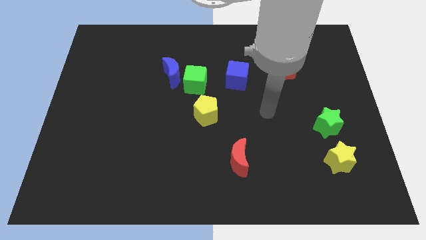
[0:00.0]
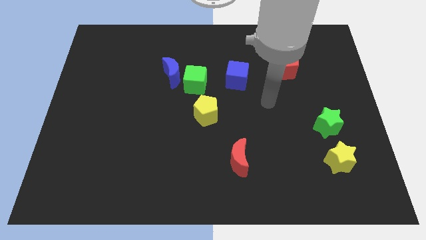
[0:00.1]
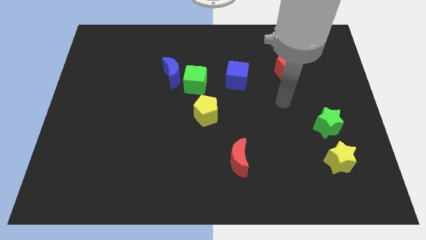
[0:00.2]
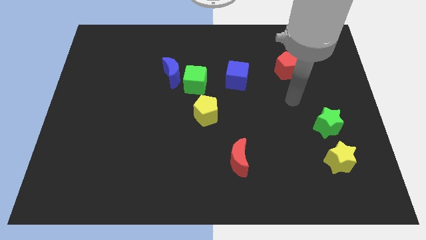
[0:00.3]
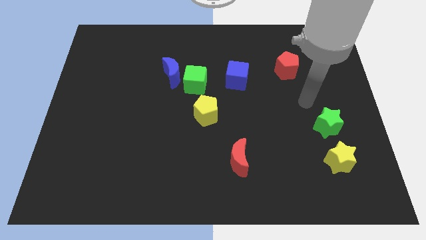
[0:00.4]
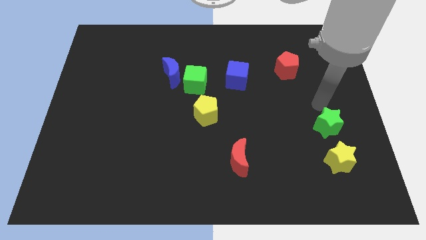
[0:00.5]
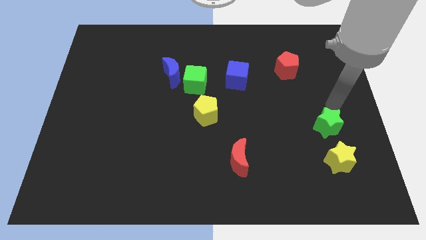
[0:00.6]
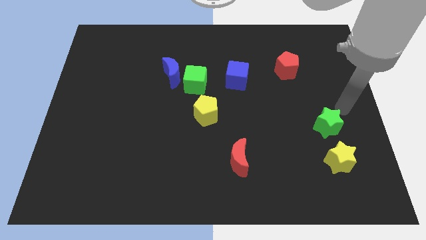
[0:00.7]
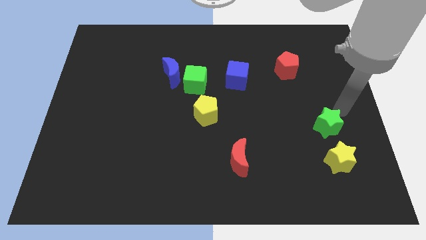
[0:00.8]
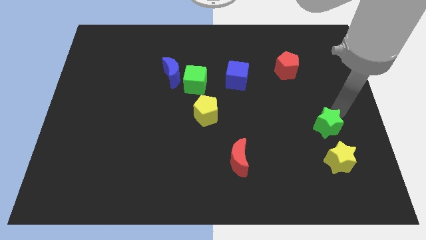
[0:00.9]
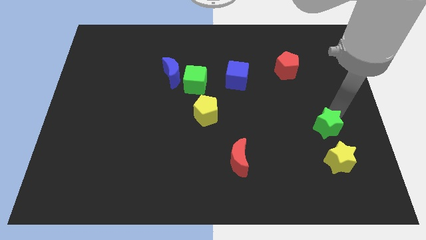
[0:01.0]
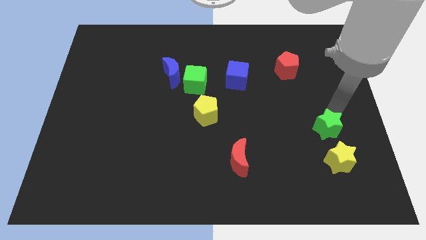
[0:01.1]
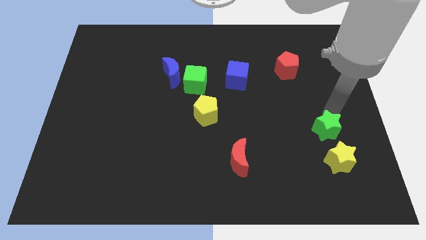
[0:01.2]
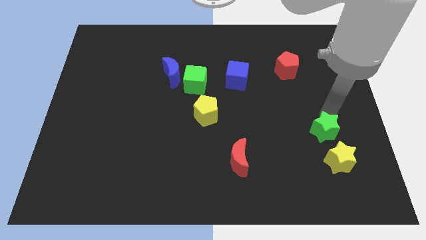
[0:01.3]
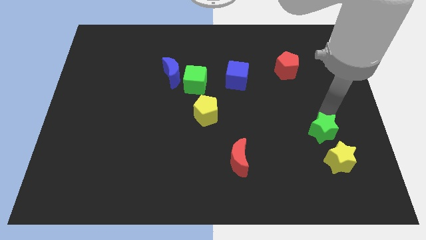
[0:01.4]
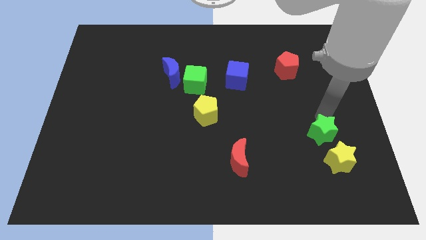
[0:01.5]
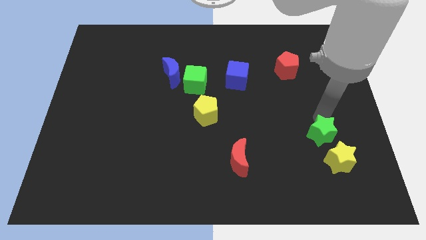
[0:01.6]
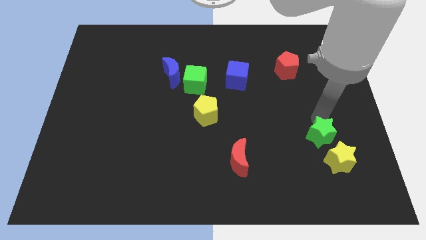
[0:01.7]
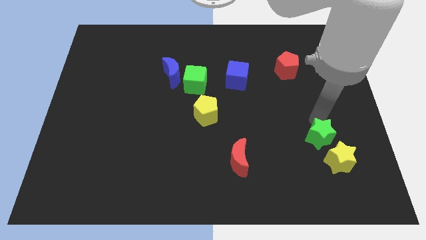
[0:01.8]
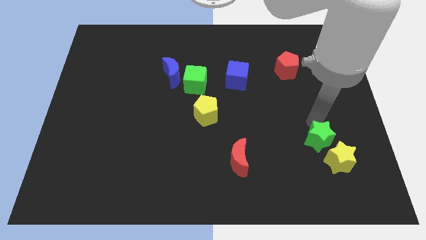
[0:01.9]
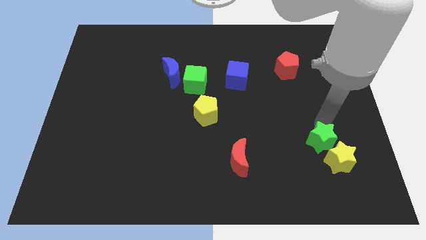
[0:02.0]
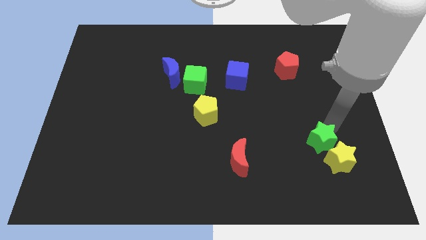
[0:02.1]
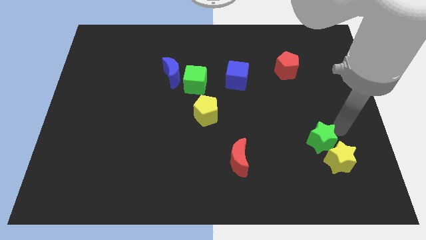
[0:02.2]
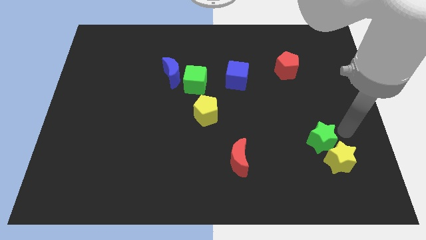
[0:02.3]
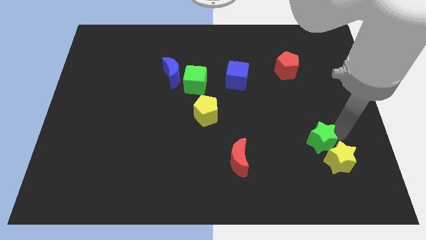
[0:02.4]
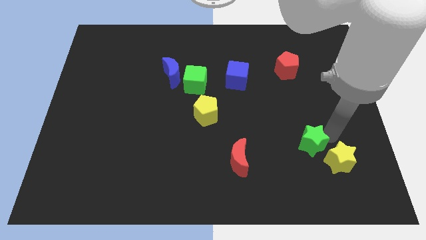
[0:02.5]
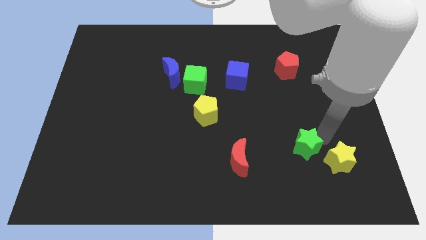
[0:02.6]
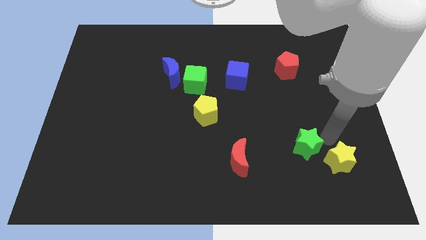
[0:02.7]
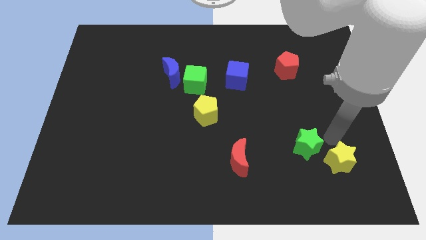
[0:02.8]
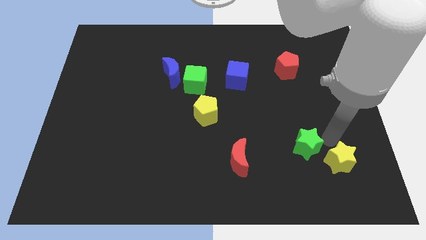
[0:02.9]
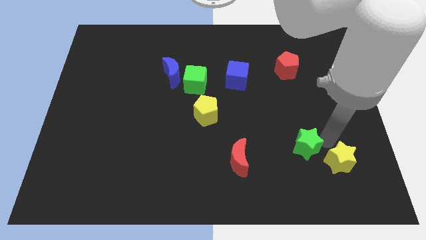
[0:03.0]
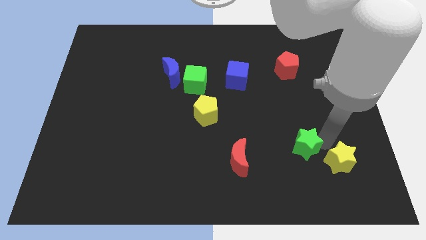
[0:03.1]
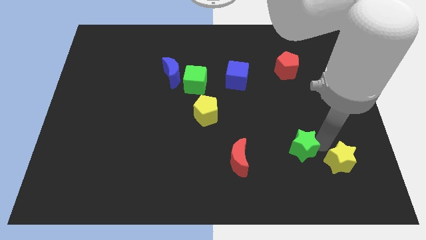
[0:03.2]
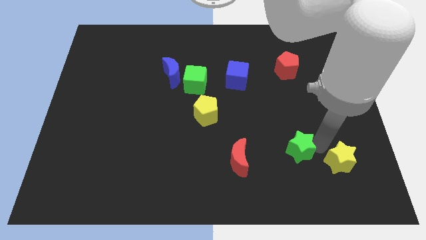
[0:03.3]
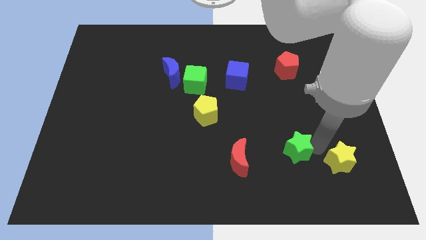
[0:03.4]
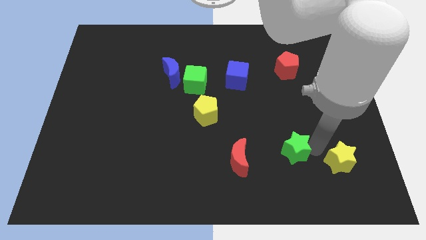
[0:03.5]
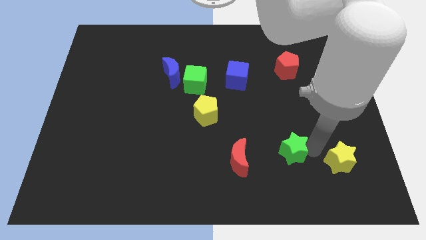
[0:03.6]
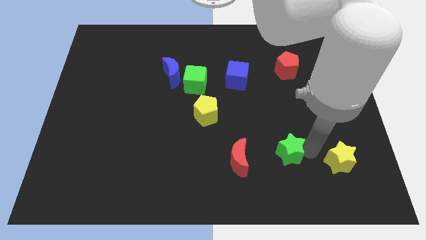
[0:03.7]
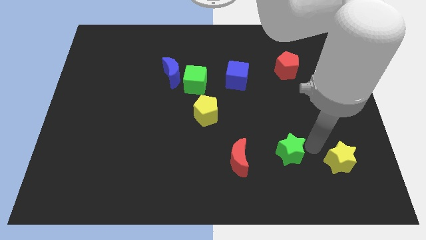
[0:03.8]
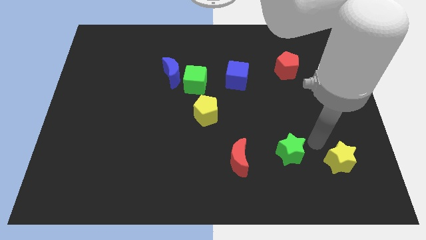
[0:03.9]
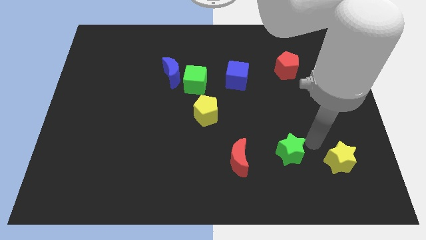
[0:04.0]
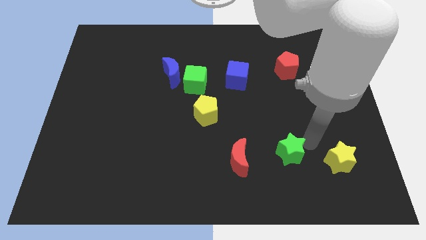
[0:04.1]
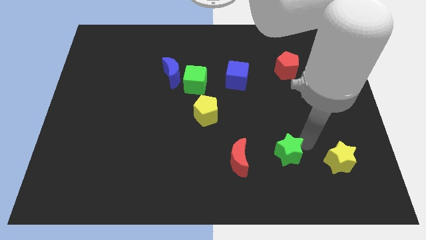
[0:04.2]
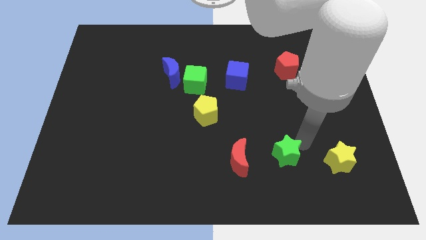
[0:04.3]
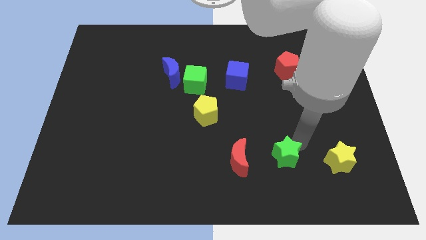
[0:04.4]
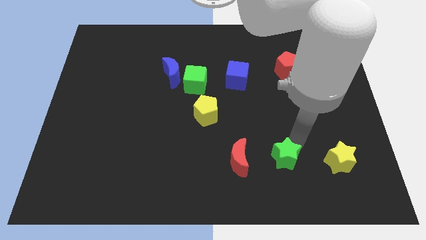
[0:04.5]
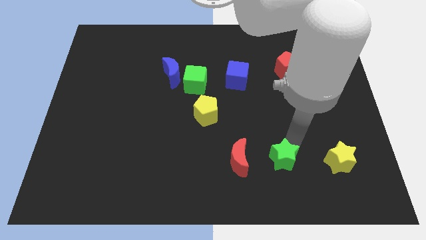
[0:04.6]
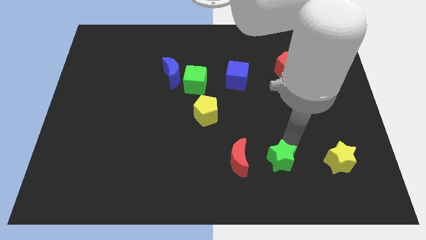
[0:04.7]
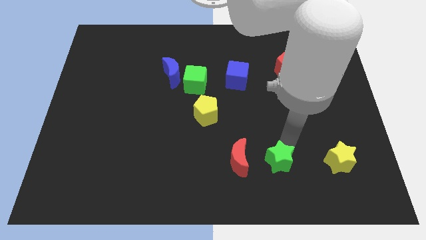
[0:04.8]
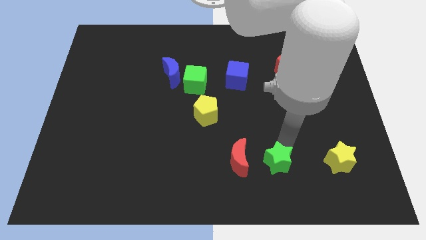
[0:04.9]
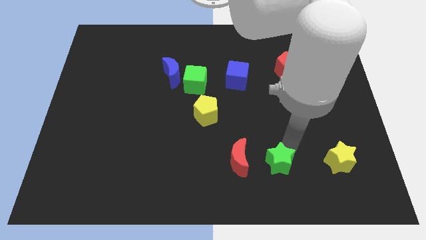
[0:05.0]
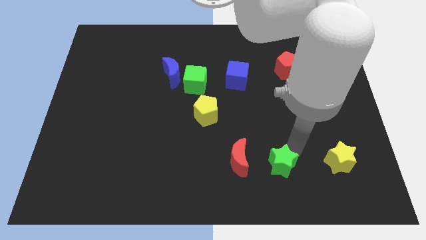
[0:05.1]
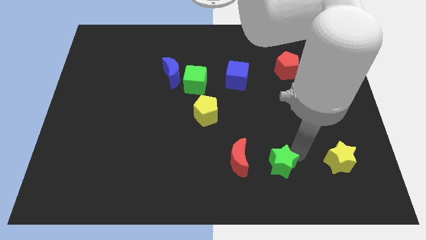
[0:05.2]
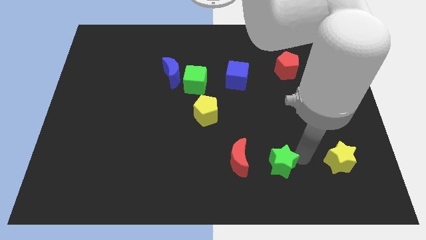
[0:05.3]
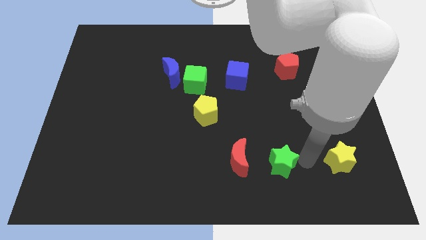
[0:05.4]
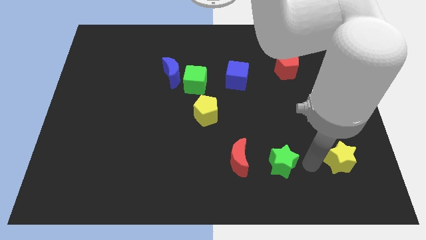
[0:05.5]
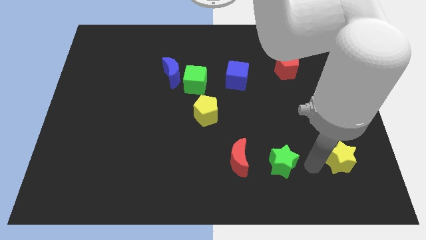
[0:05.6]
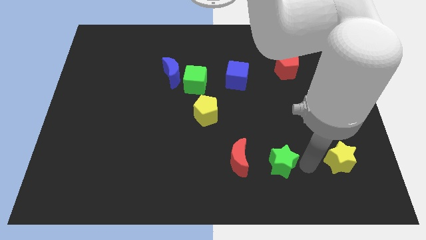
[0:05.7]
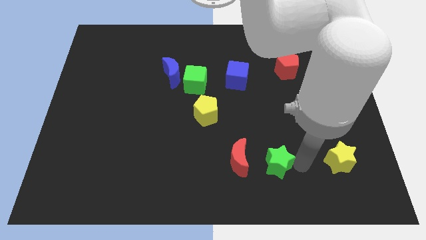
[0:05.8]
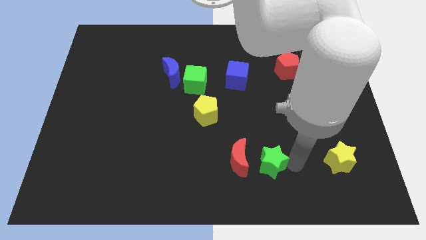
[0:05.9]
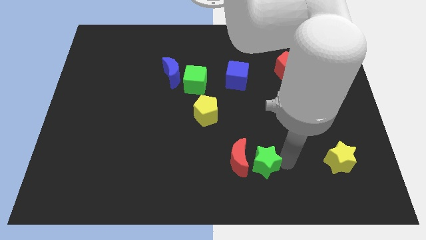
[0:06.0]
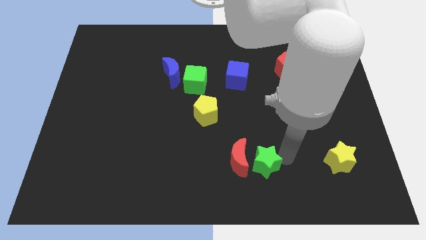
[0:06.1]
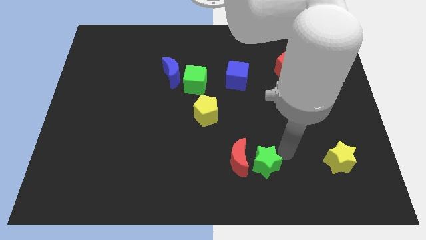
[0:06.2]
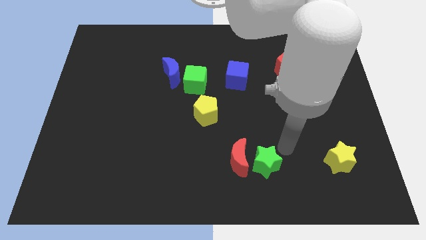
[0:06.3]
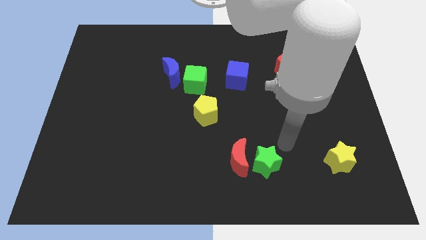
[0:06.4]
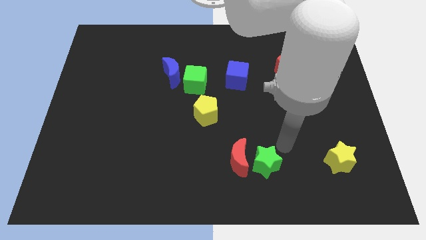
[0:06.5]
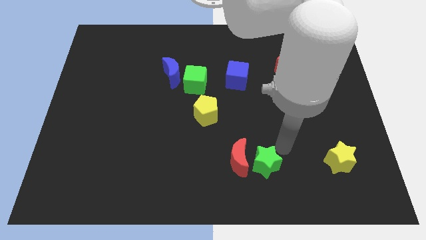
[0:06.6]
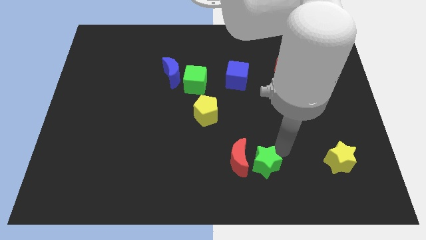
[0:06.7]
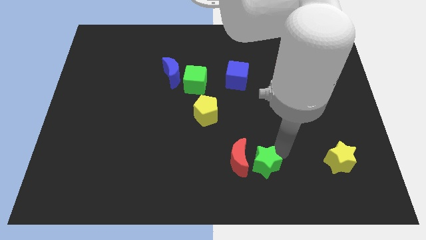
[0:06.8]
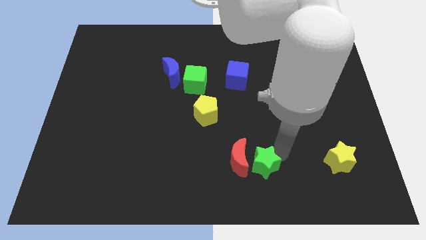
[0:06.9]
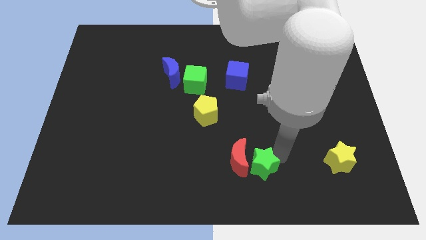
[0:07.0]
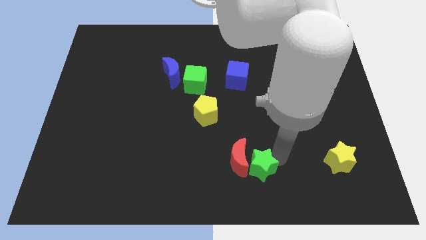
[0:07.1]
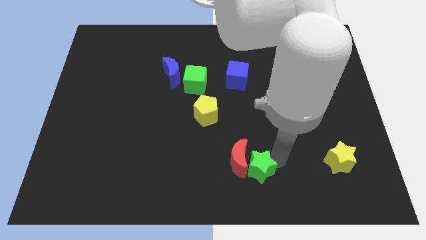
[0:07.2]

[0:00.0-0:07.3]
put the green star to the bottom
